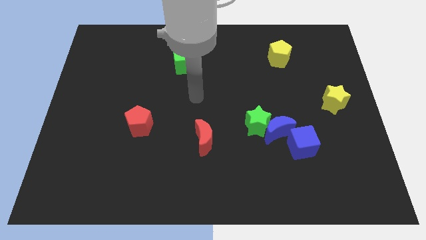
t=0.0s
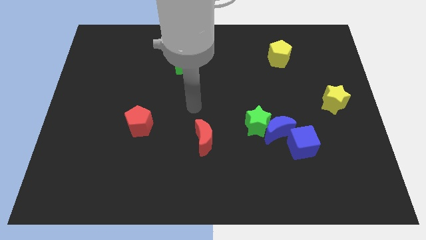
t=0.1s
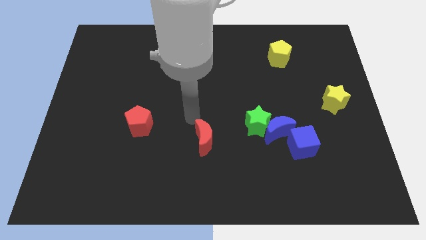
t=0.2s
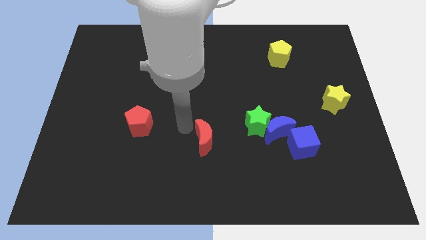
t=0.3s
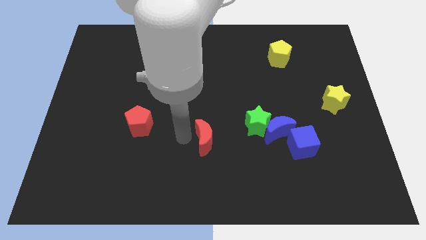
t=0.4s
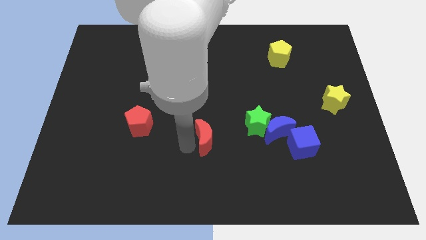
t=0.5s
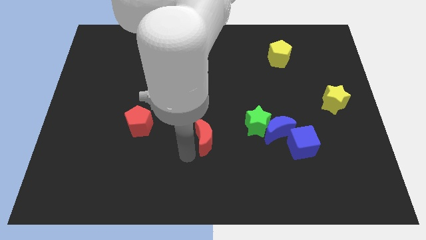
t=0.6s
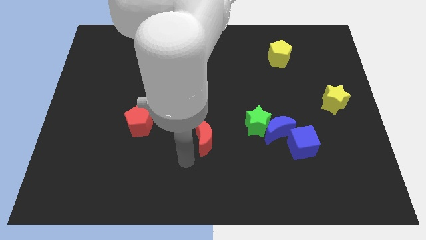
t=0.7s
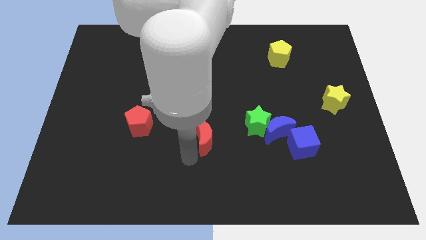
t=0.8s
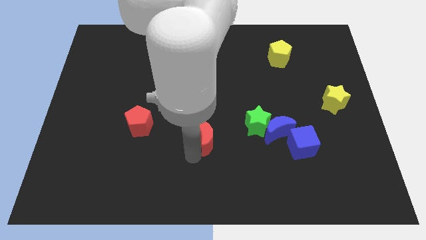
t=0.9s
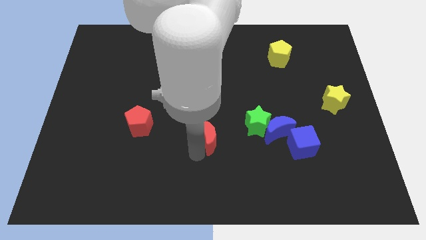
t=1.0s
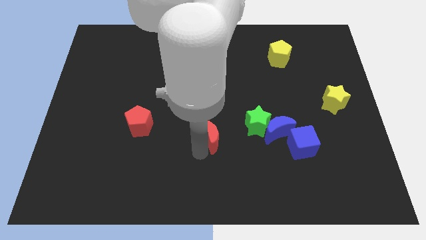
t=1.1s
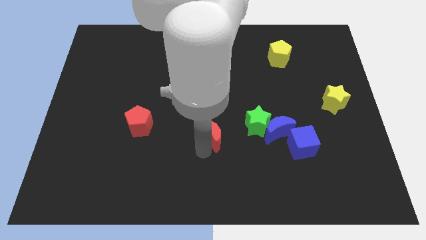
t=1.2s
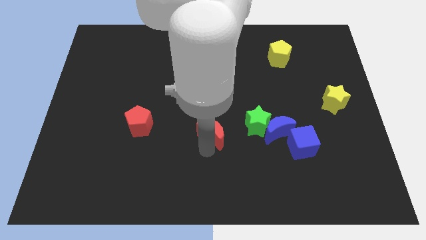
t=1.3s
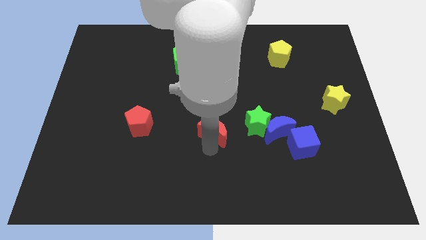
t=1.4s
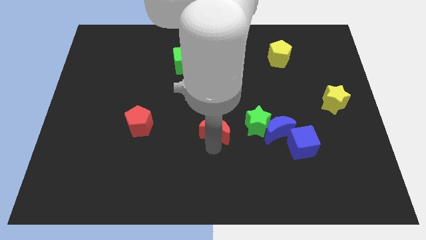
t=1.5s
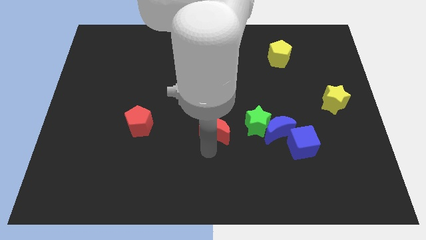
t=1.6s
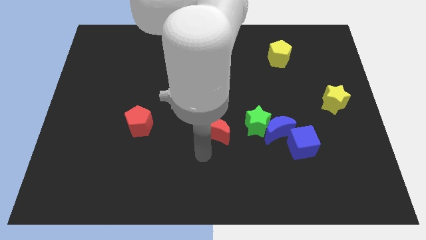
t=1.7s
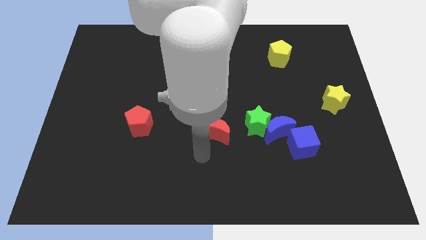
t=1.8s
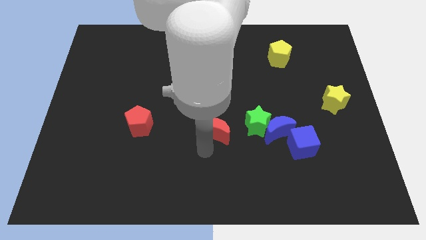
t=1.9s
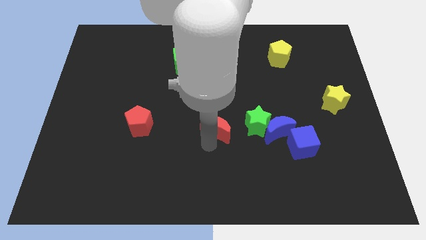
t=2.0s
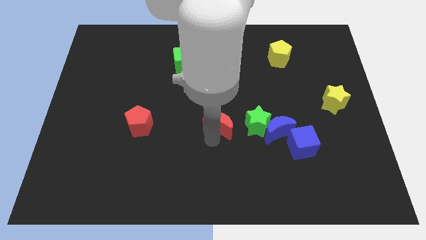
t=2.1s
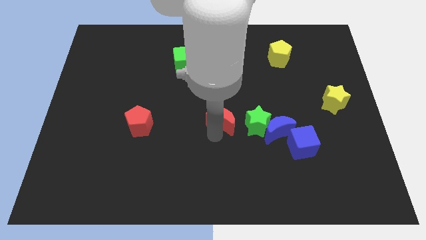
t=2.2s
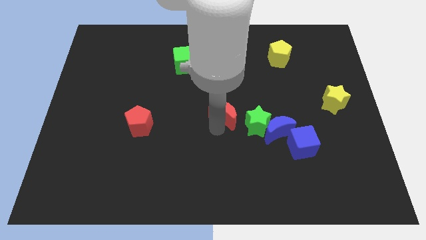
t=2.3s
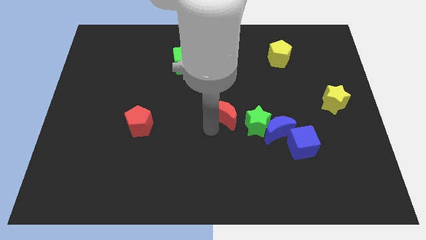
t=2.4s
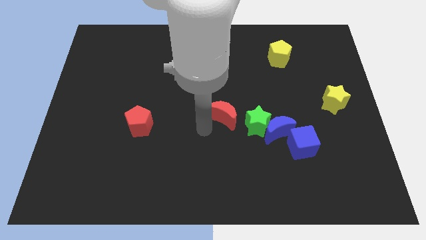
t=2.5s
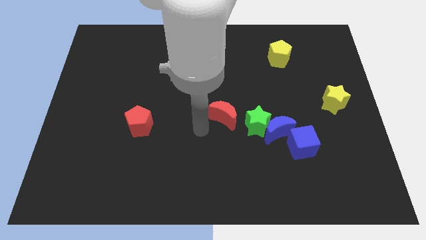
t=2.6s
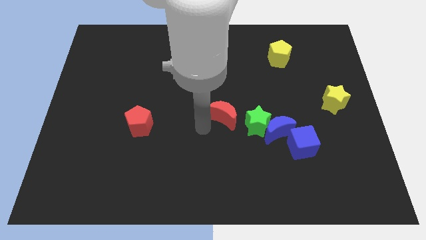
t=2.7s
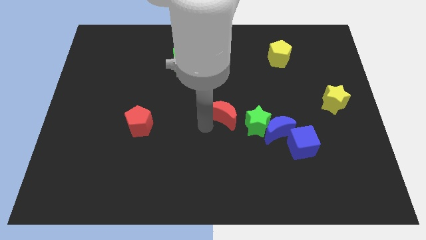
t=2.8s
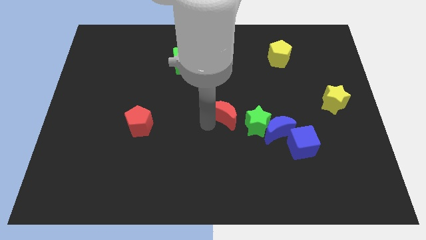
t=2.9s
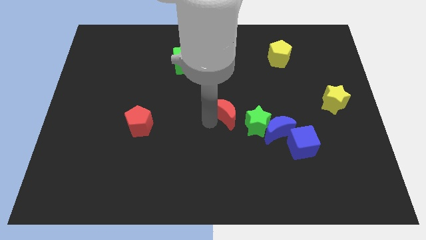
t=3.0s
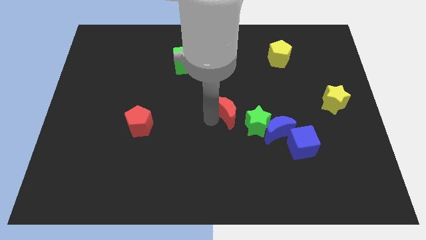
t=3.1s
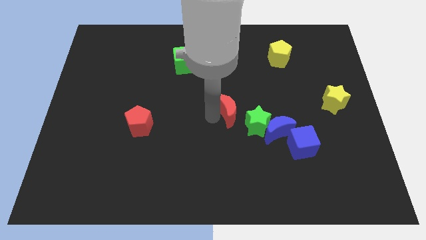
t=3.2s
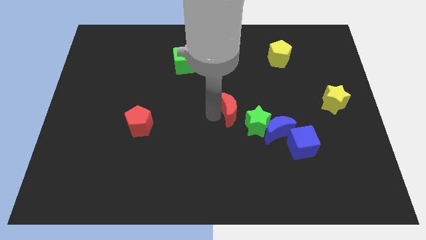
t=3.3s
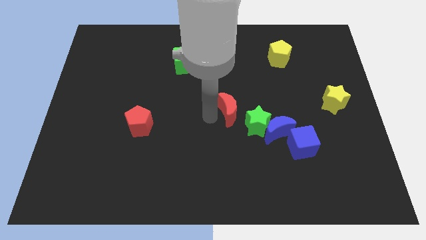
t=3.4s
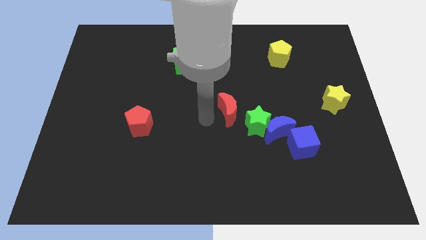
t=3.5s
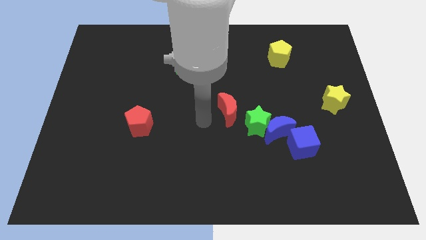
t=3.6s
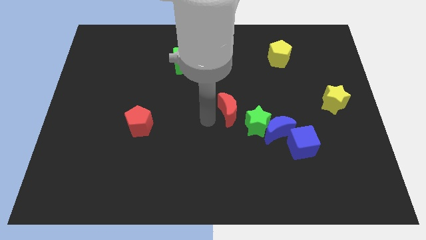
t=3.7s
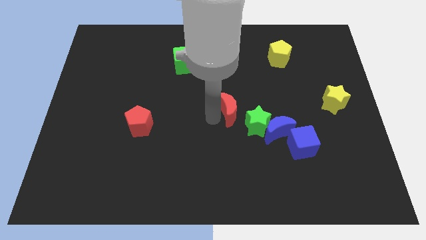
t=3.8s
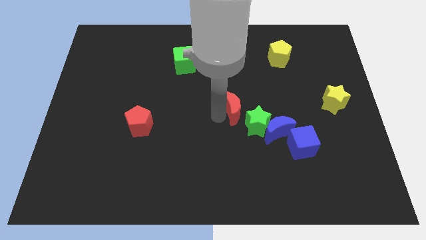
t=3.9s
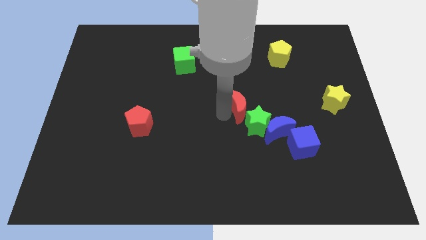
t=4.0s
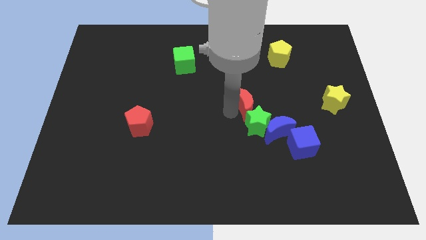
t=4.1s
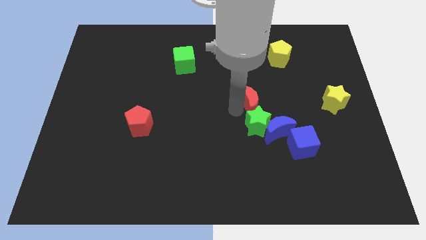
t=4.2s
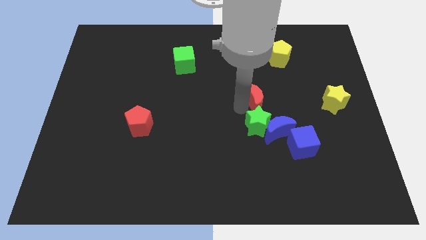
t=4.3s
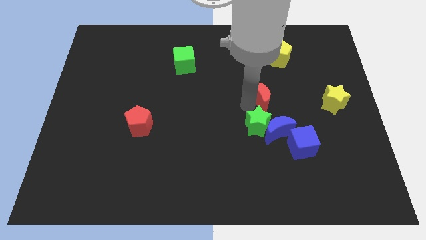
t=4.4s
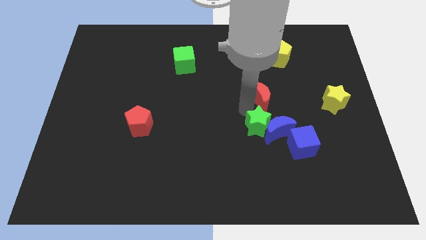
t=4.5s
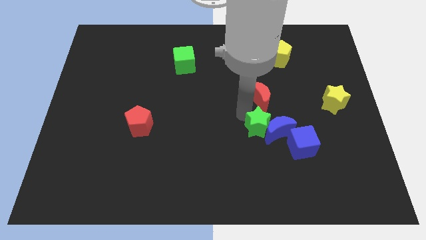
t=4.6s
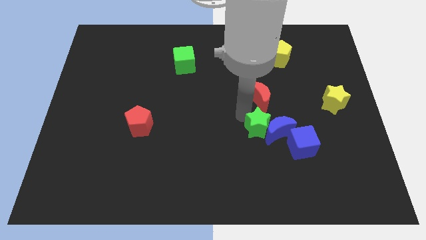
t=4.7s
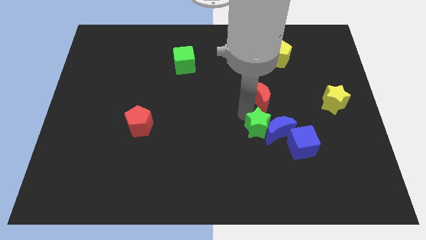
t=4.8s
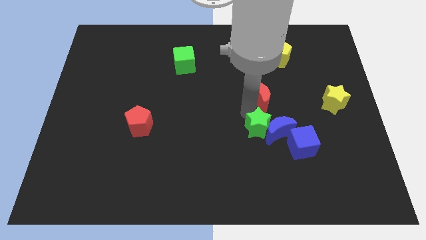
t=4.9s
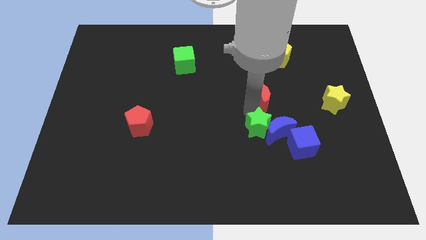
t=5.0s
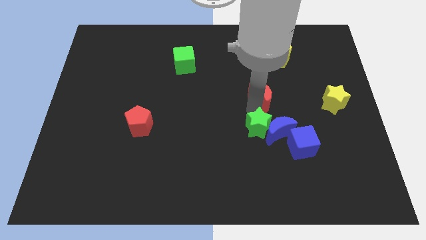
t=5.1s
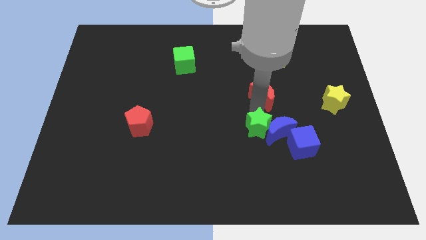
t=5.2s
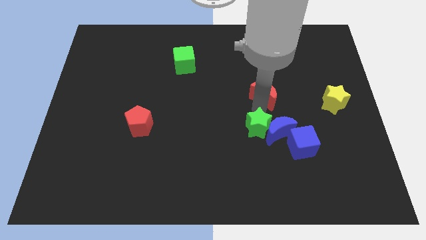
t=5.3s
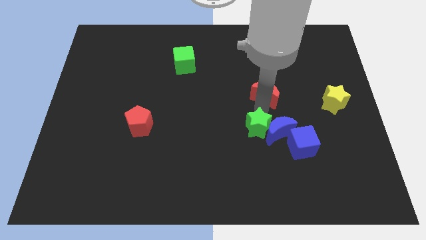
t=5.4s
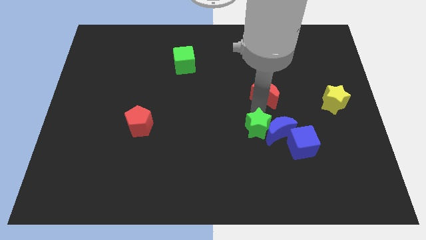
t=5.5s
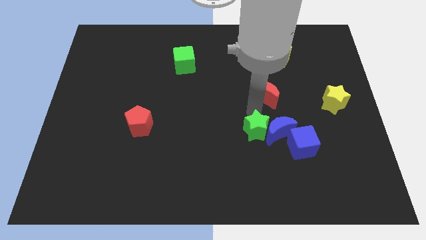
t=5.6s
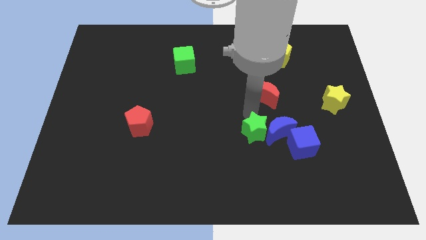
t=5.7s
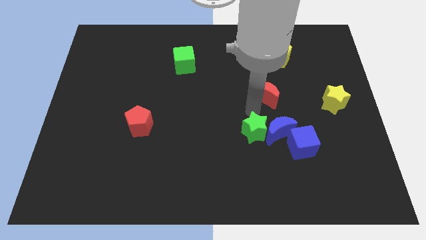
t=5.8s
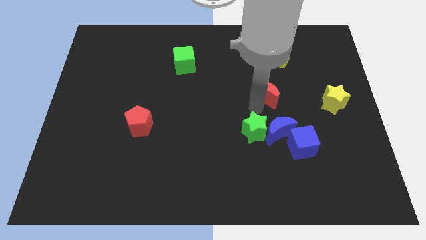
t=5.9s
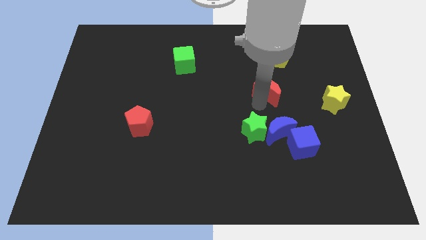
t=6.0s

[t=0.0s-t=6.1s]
push the red moon up and right diagonally

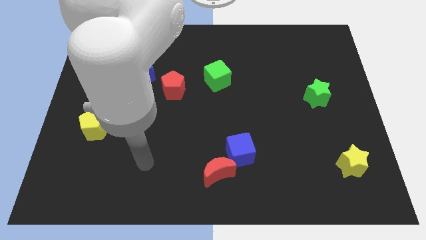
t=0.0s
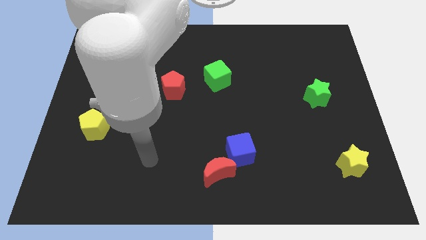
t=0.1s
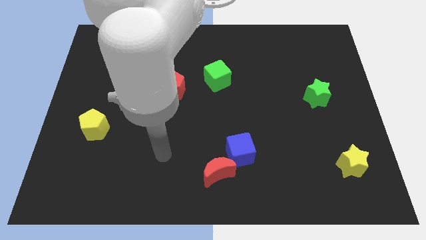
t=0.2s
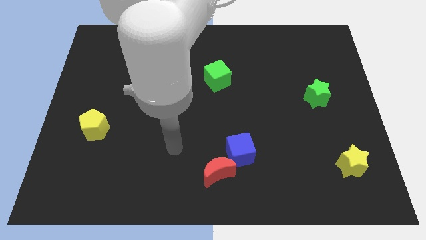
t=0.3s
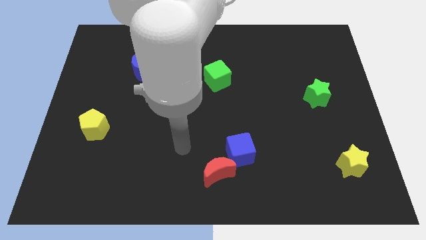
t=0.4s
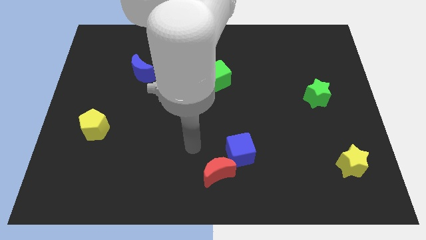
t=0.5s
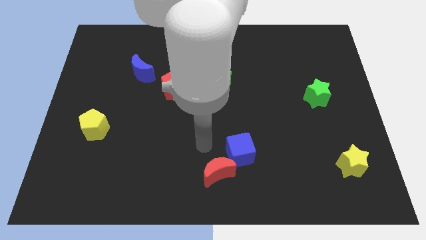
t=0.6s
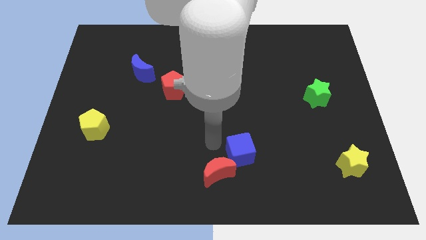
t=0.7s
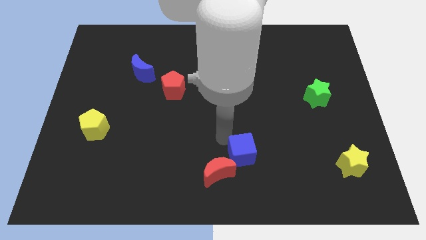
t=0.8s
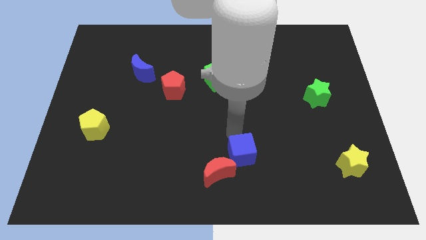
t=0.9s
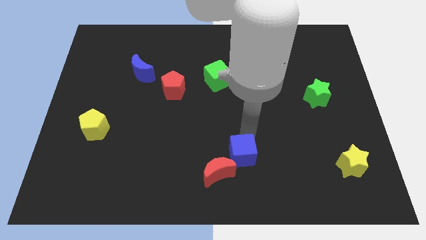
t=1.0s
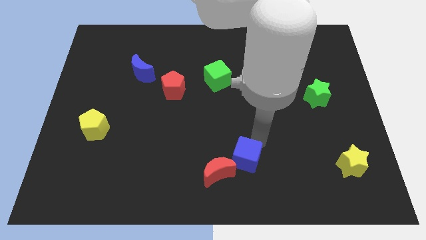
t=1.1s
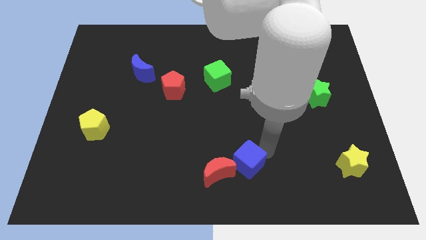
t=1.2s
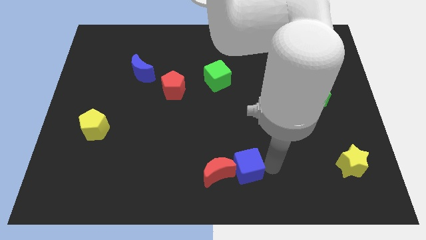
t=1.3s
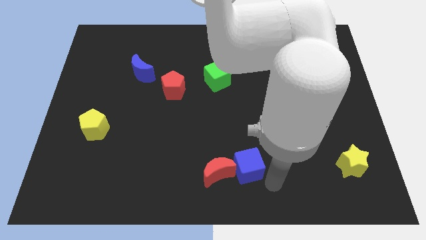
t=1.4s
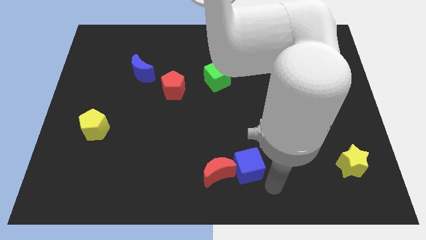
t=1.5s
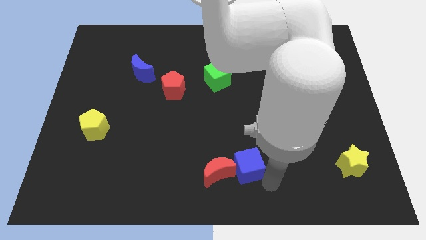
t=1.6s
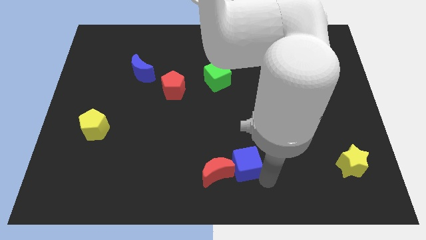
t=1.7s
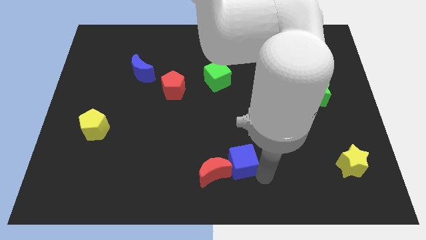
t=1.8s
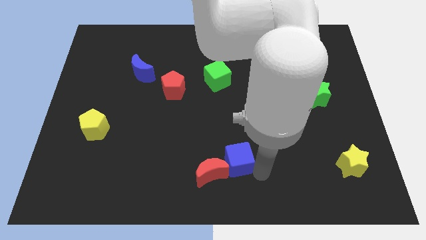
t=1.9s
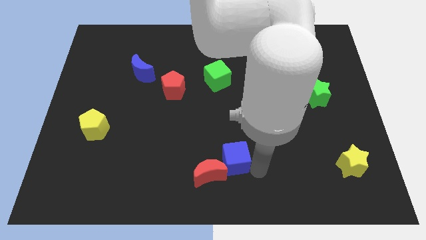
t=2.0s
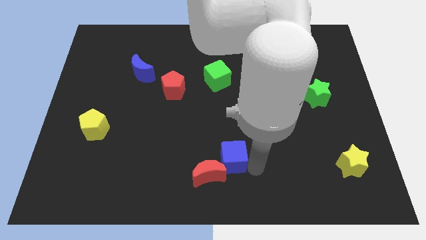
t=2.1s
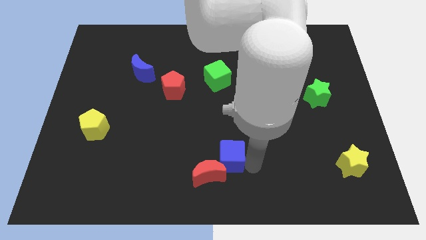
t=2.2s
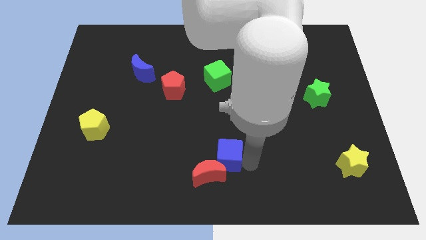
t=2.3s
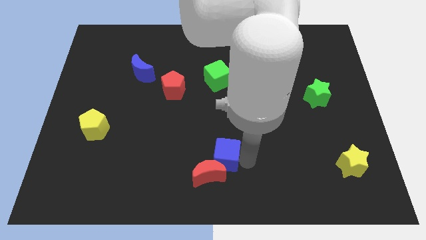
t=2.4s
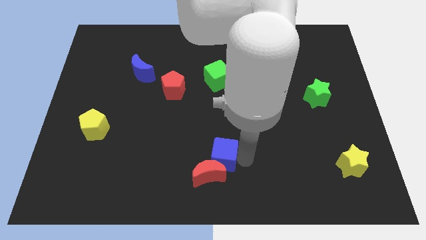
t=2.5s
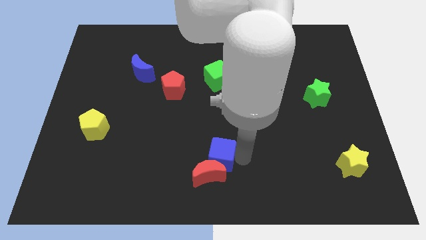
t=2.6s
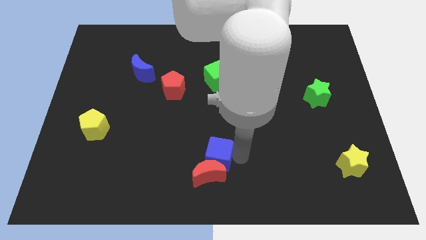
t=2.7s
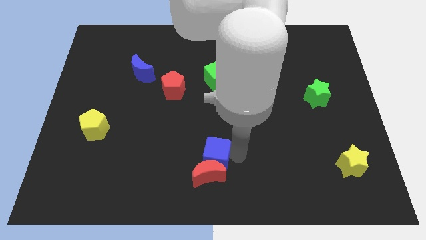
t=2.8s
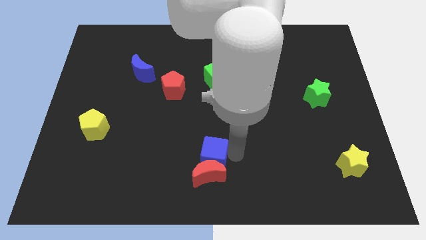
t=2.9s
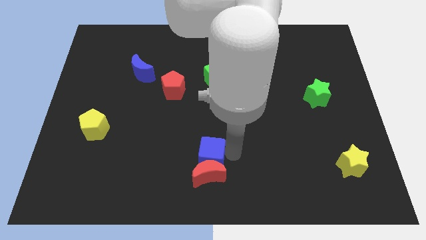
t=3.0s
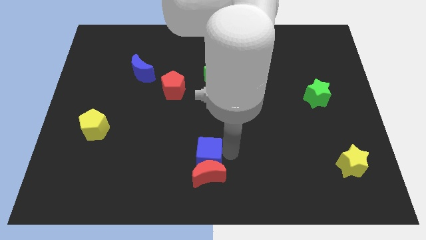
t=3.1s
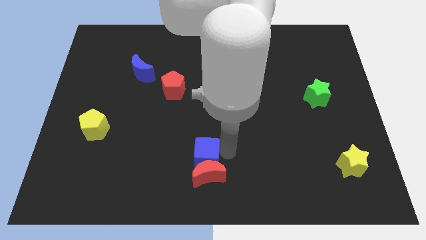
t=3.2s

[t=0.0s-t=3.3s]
slide the blue cube slightly to the left
